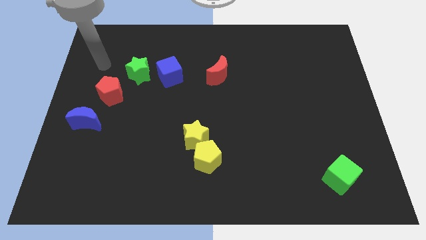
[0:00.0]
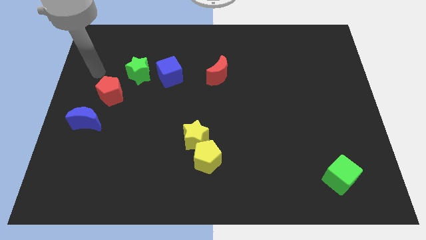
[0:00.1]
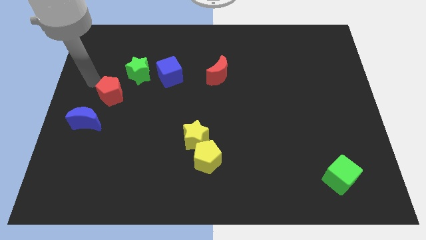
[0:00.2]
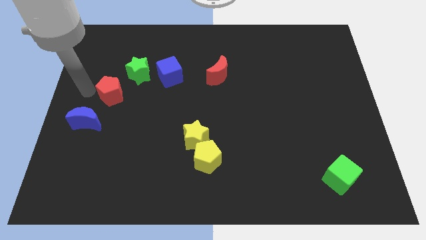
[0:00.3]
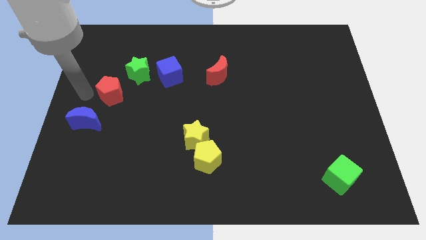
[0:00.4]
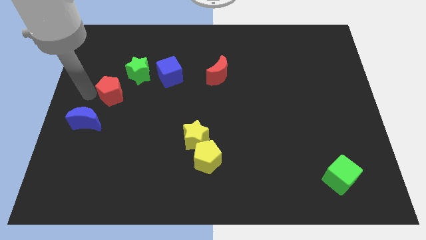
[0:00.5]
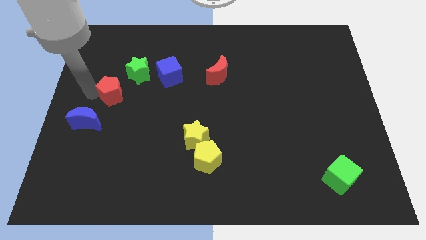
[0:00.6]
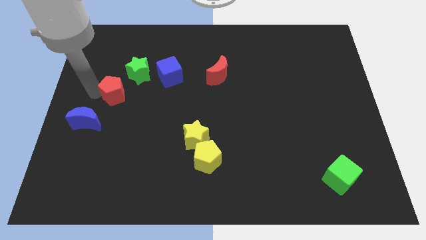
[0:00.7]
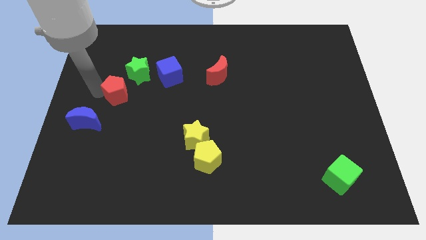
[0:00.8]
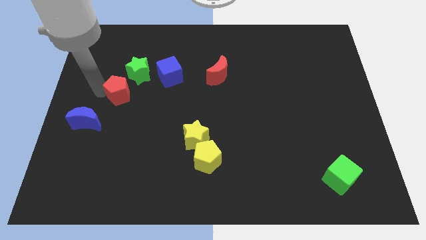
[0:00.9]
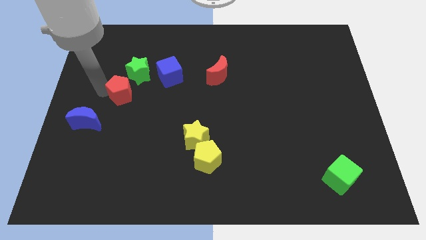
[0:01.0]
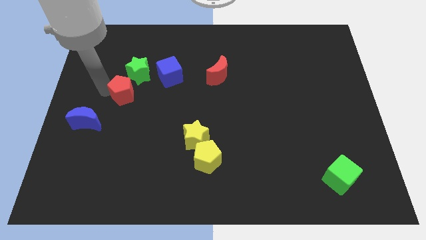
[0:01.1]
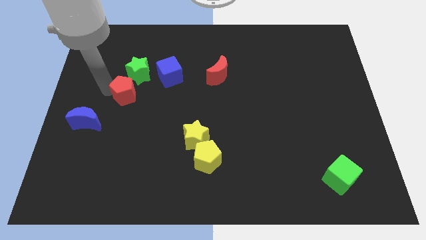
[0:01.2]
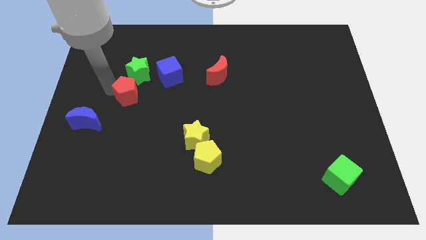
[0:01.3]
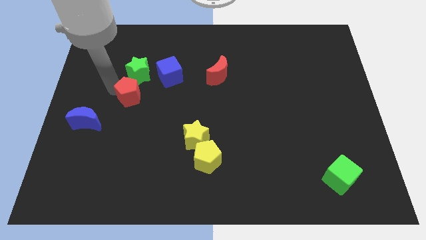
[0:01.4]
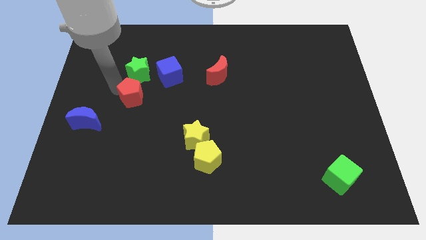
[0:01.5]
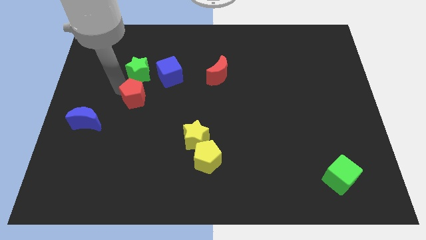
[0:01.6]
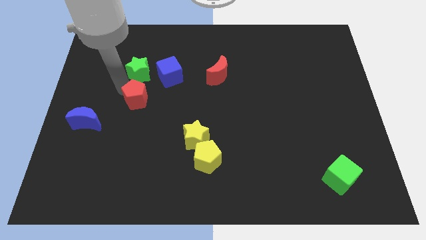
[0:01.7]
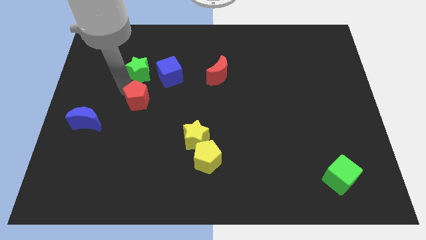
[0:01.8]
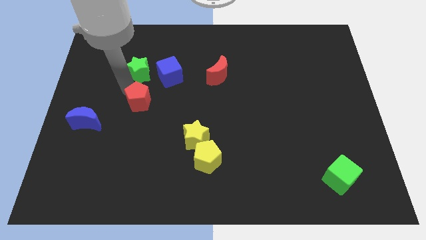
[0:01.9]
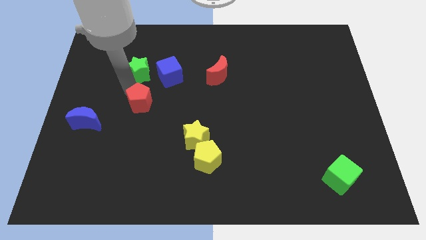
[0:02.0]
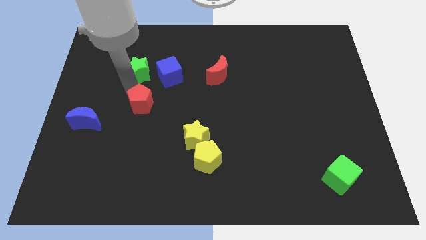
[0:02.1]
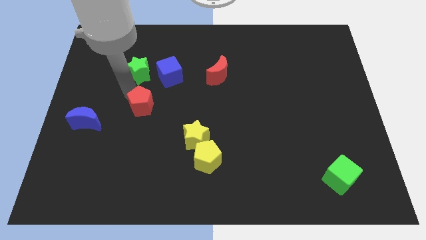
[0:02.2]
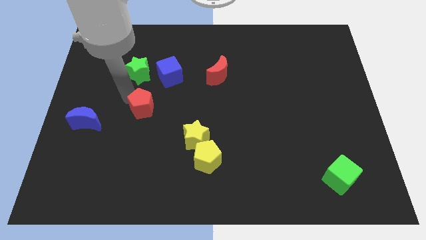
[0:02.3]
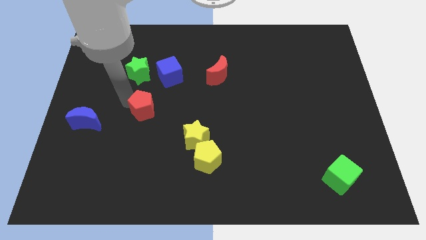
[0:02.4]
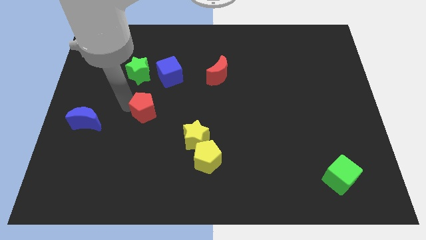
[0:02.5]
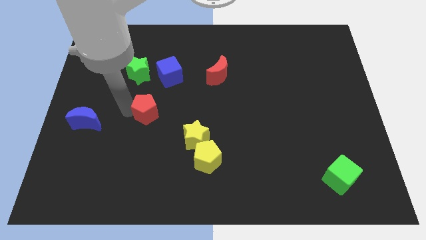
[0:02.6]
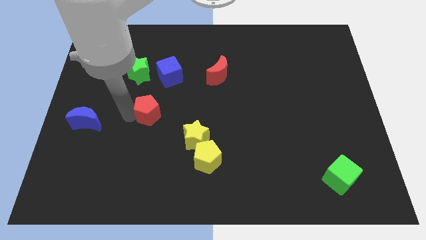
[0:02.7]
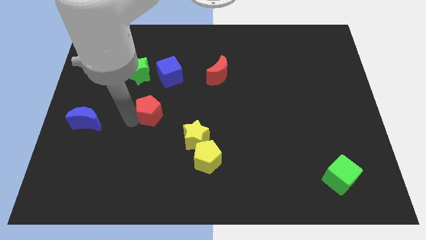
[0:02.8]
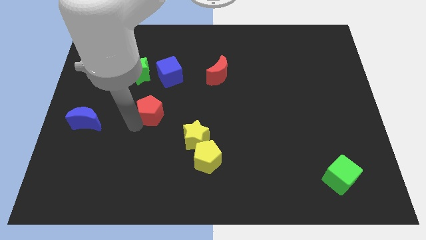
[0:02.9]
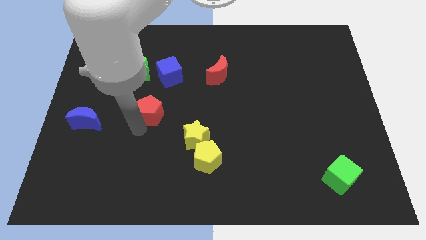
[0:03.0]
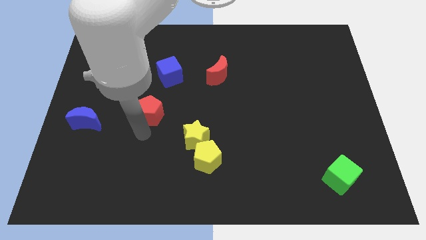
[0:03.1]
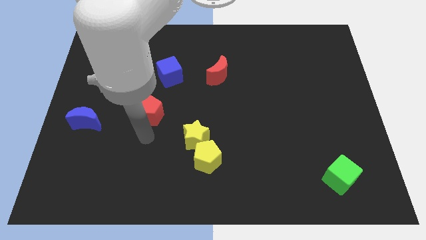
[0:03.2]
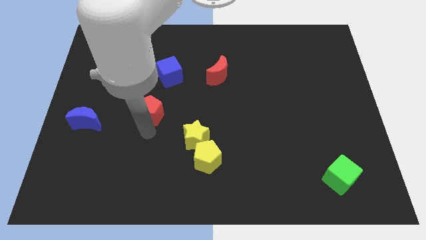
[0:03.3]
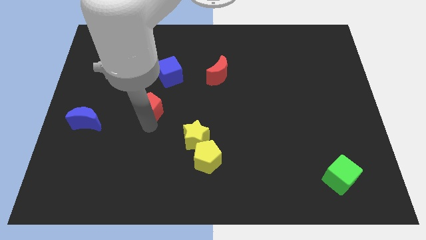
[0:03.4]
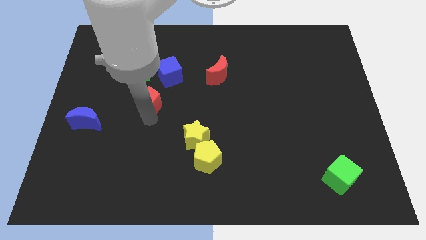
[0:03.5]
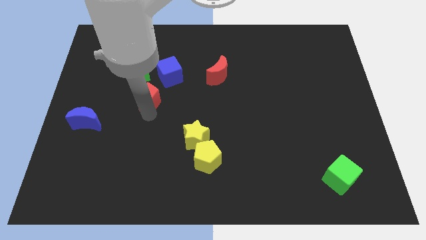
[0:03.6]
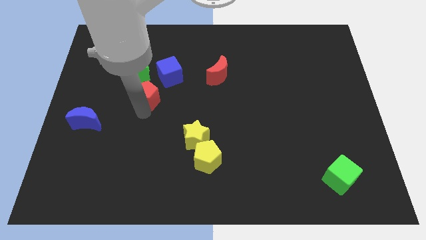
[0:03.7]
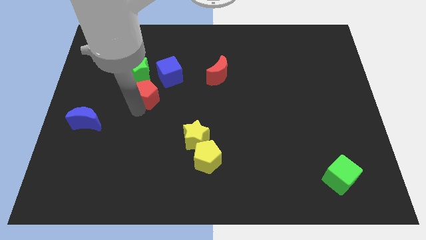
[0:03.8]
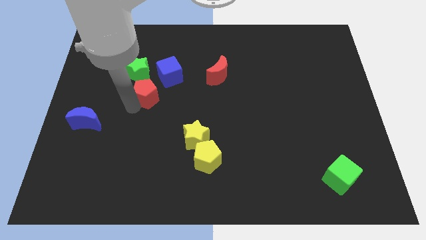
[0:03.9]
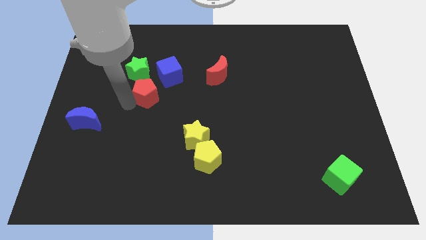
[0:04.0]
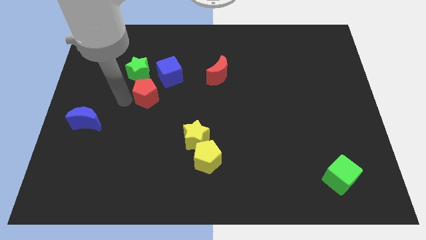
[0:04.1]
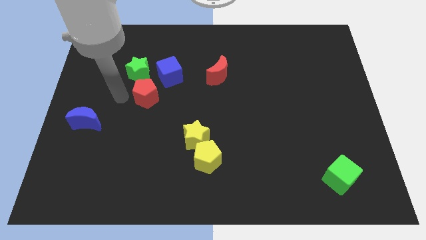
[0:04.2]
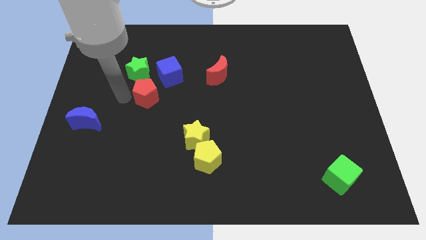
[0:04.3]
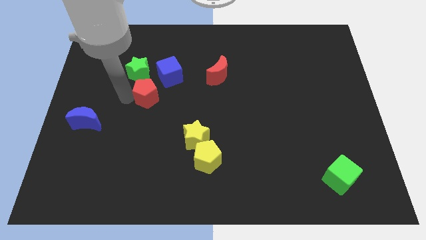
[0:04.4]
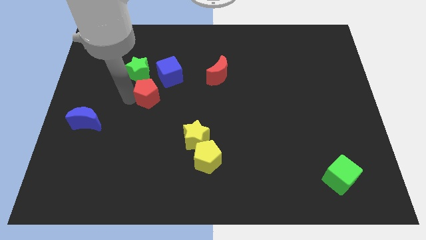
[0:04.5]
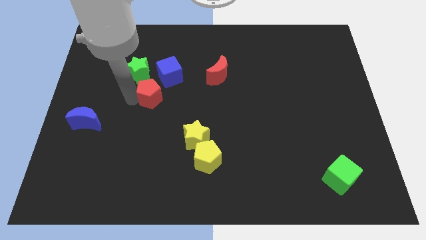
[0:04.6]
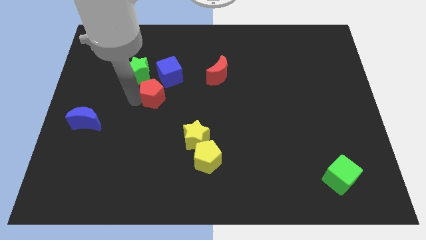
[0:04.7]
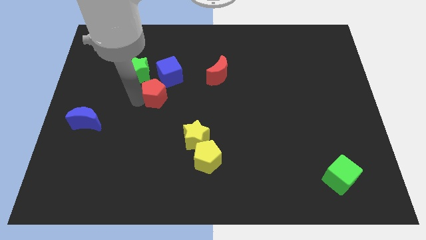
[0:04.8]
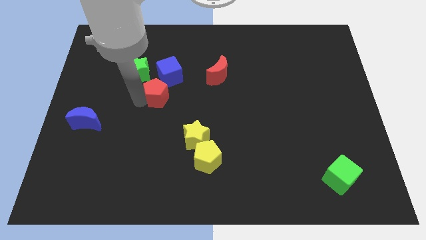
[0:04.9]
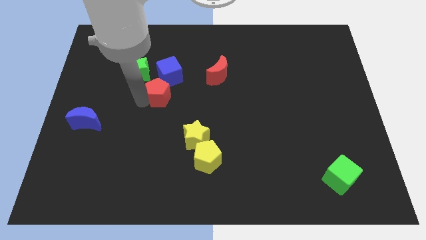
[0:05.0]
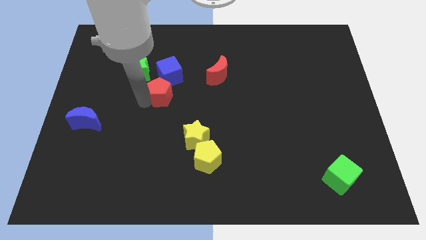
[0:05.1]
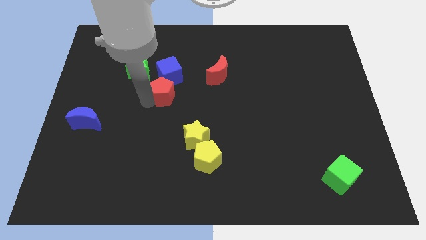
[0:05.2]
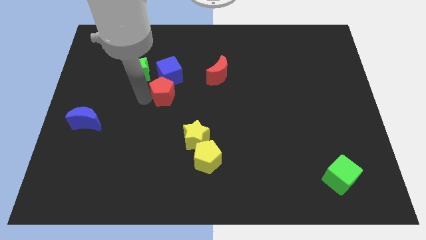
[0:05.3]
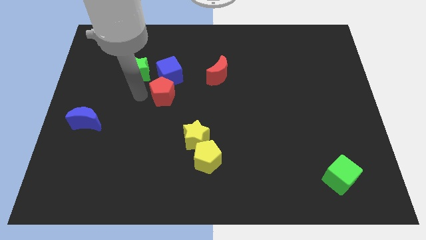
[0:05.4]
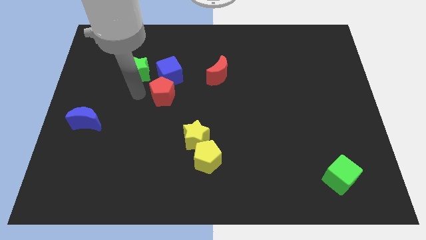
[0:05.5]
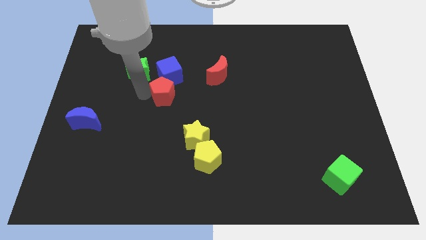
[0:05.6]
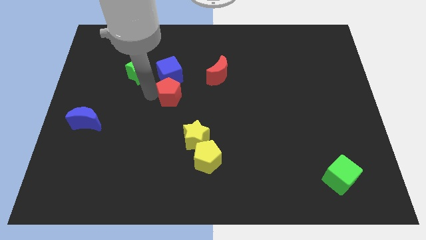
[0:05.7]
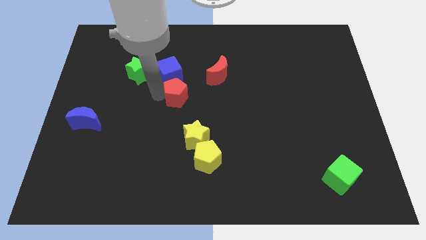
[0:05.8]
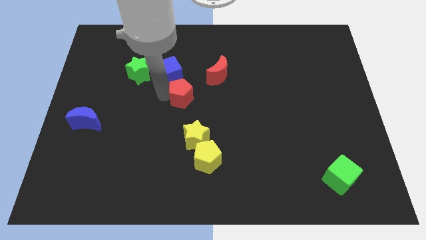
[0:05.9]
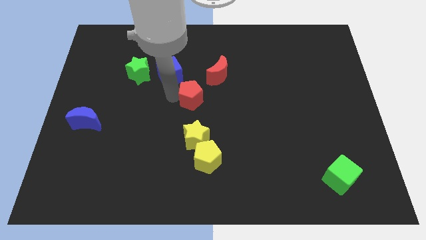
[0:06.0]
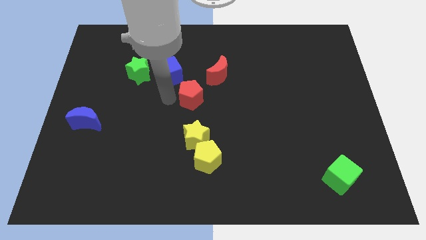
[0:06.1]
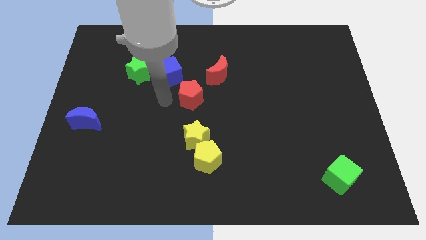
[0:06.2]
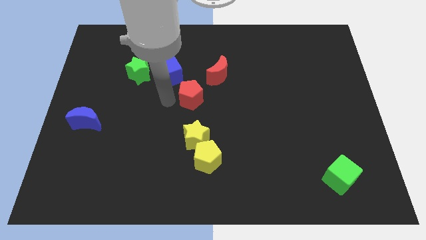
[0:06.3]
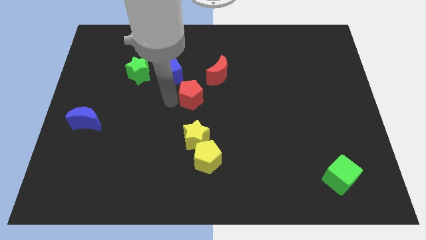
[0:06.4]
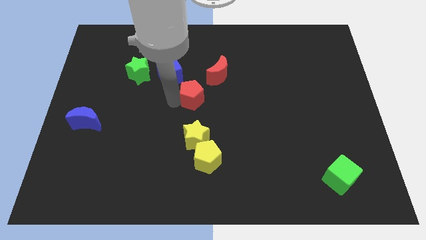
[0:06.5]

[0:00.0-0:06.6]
slide the red pentagon to the right

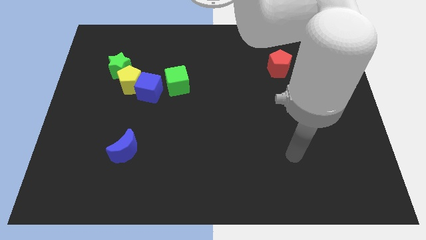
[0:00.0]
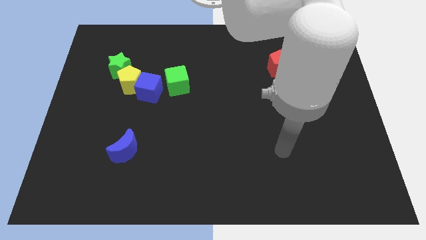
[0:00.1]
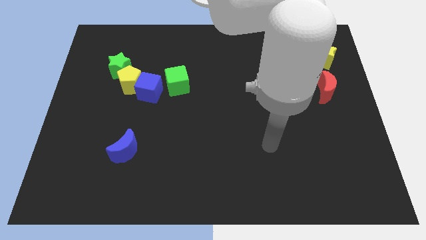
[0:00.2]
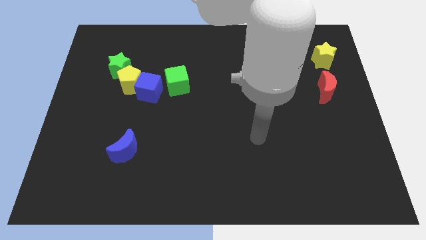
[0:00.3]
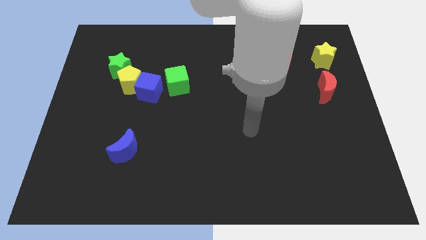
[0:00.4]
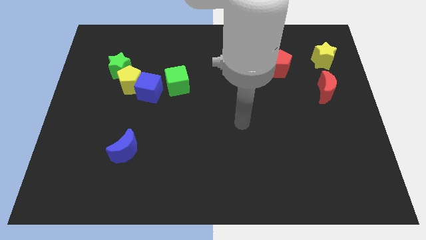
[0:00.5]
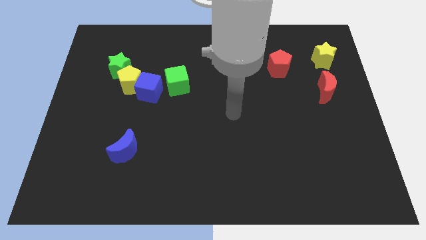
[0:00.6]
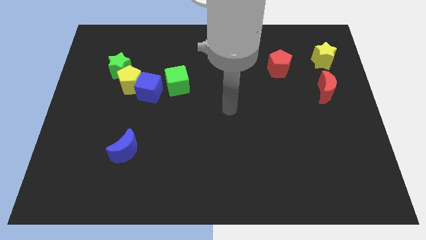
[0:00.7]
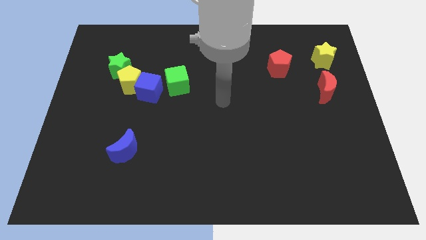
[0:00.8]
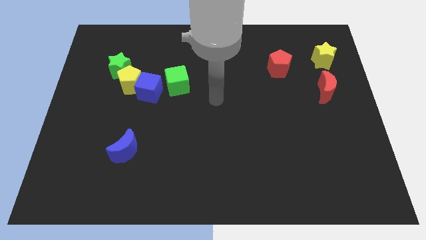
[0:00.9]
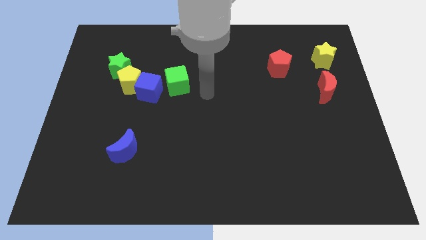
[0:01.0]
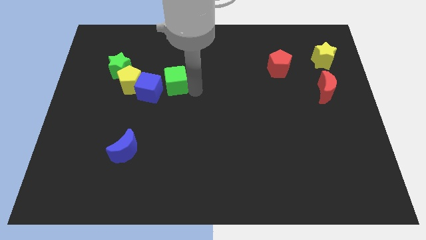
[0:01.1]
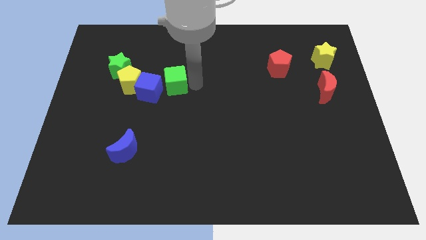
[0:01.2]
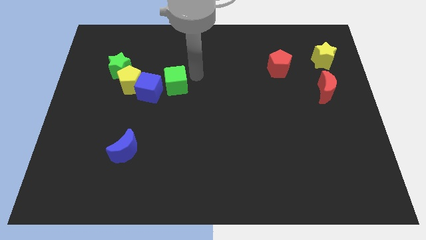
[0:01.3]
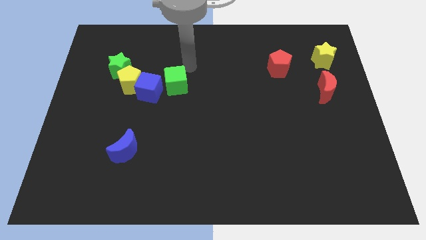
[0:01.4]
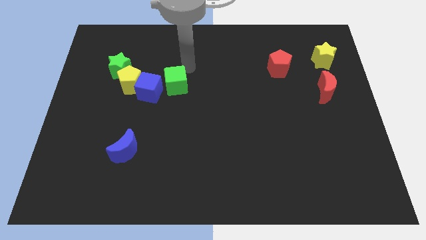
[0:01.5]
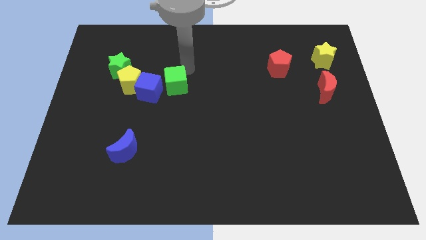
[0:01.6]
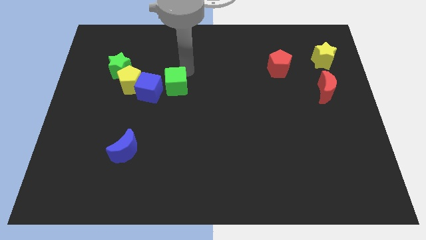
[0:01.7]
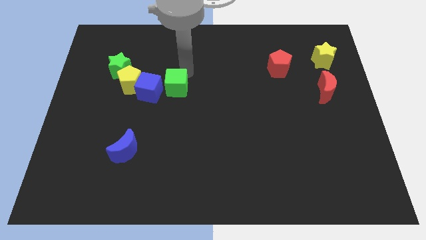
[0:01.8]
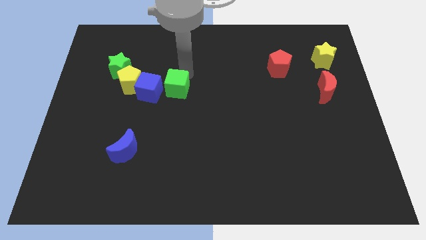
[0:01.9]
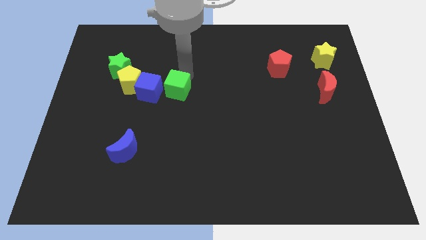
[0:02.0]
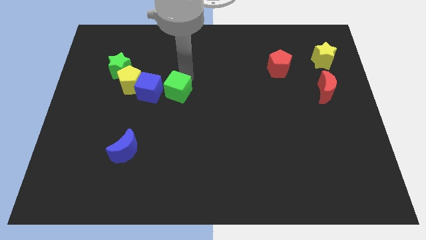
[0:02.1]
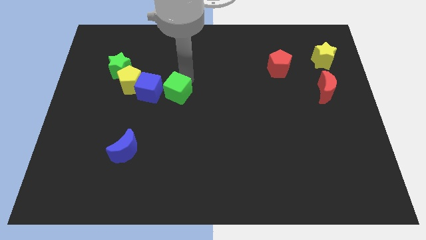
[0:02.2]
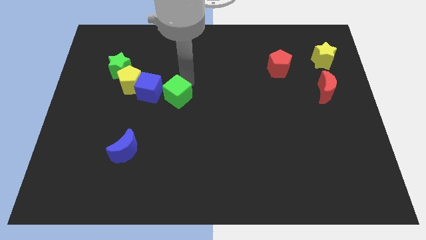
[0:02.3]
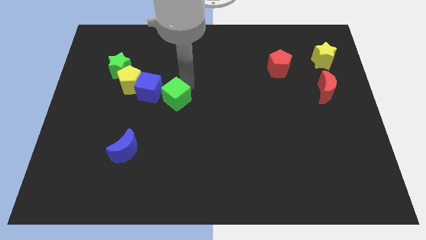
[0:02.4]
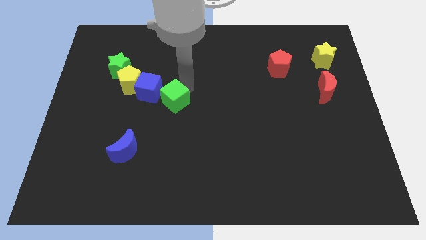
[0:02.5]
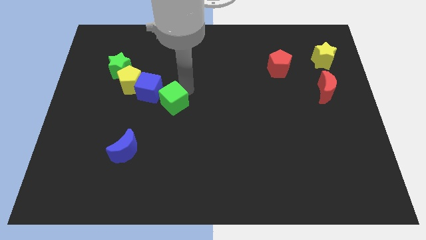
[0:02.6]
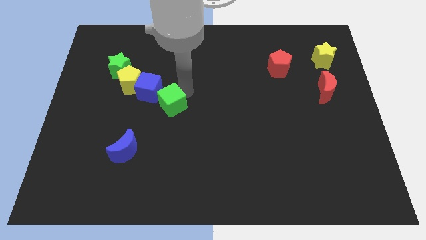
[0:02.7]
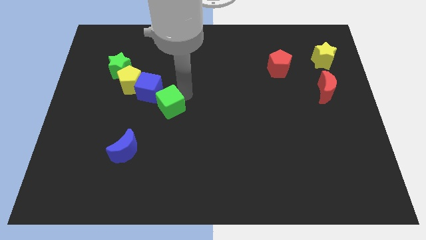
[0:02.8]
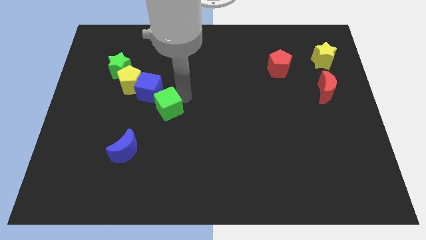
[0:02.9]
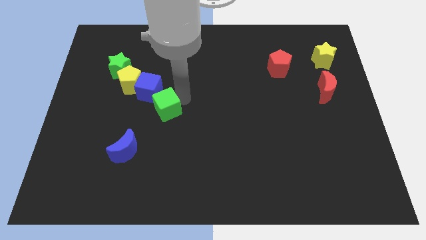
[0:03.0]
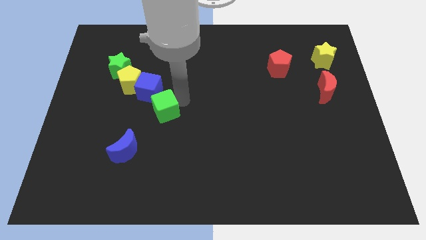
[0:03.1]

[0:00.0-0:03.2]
slightly slide the green cube diagonally down and to the left
